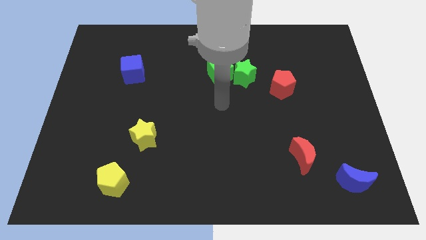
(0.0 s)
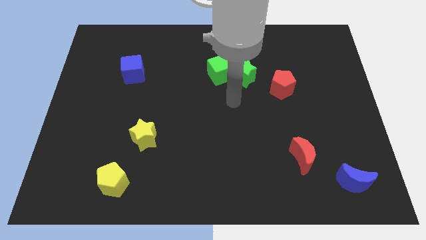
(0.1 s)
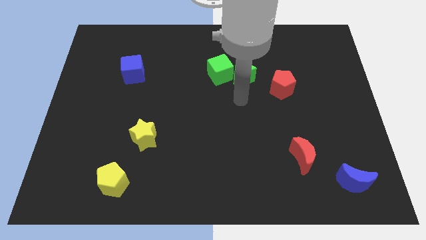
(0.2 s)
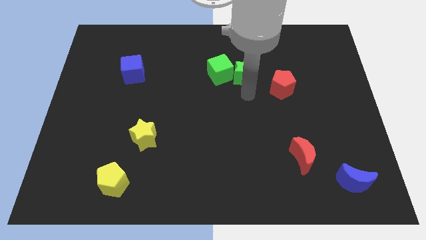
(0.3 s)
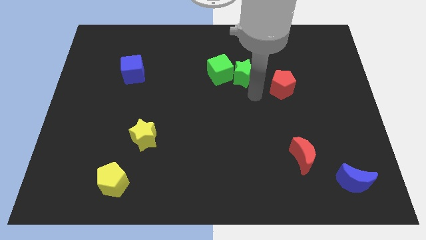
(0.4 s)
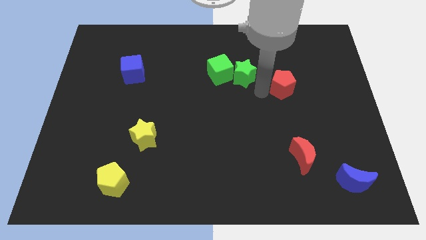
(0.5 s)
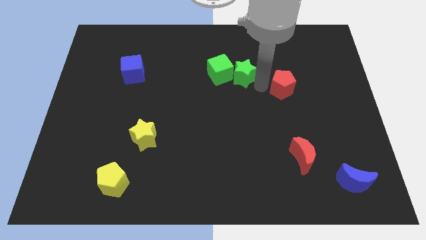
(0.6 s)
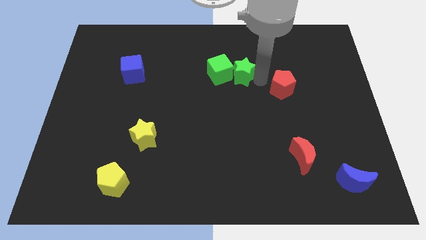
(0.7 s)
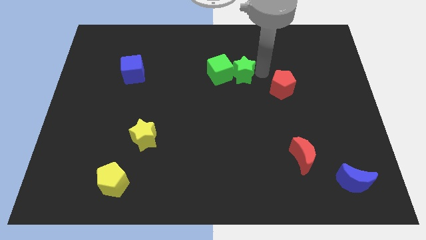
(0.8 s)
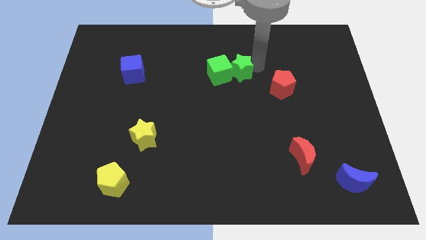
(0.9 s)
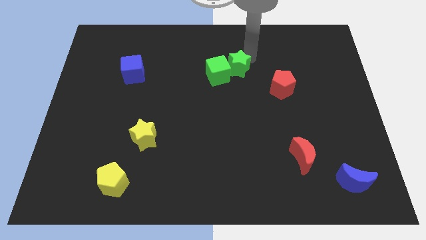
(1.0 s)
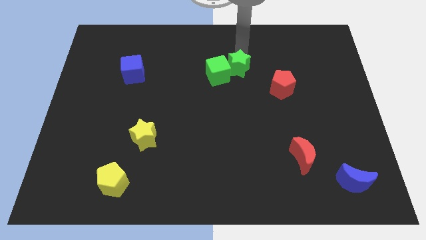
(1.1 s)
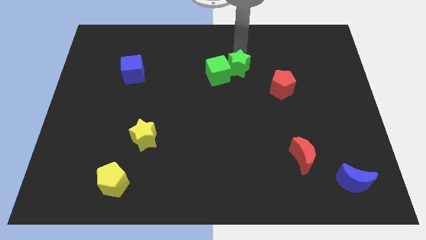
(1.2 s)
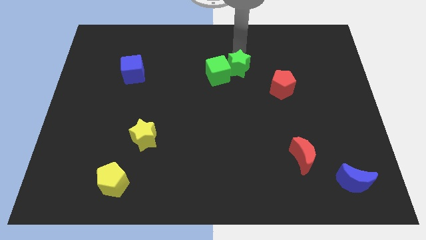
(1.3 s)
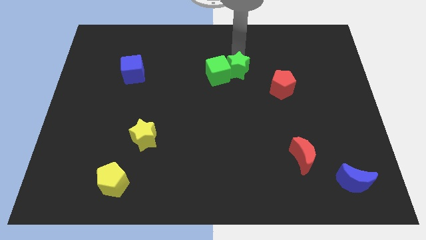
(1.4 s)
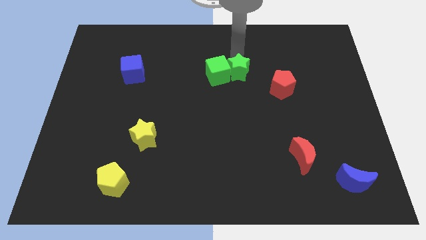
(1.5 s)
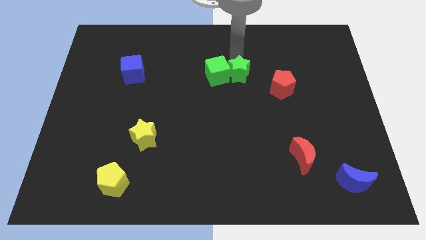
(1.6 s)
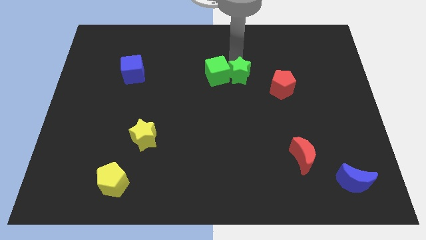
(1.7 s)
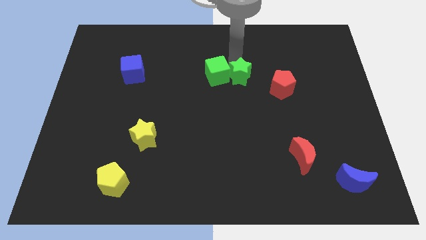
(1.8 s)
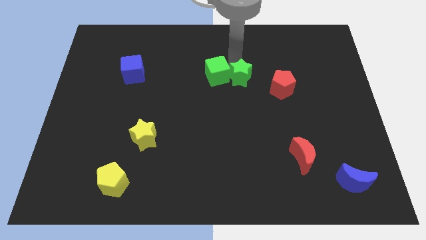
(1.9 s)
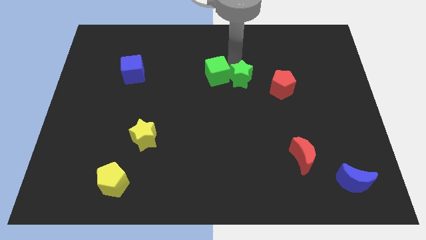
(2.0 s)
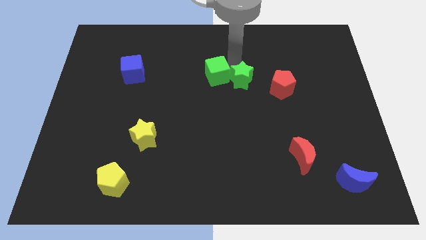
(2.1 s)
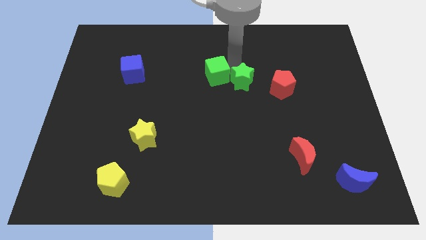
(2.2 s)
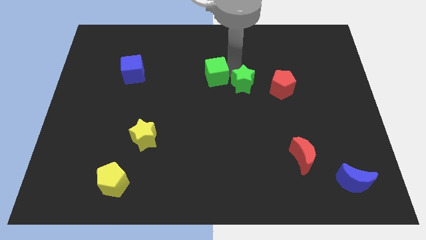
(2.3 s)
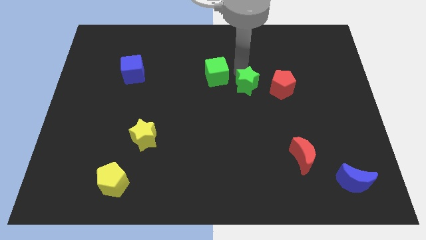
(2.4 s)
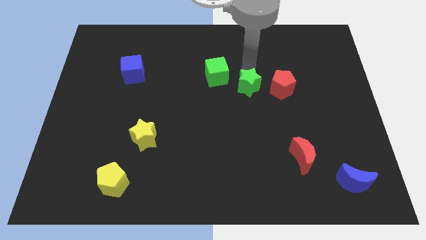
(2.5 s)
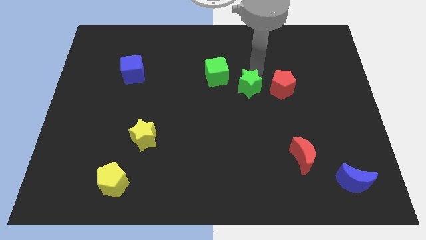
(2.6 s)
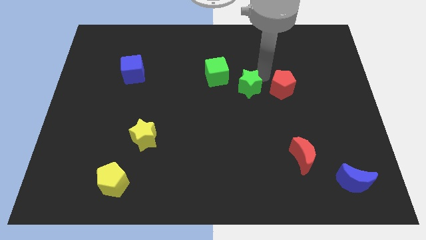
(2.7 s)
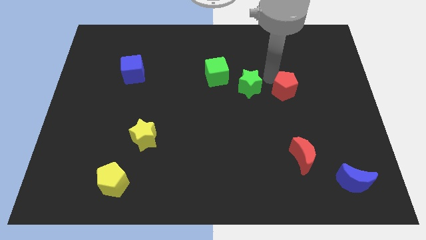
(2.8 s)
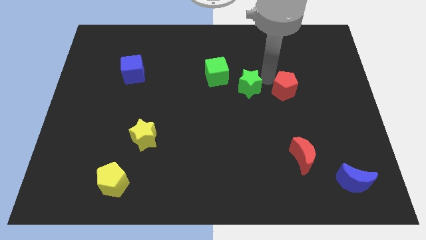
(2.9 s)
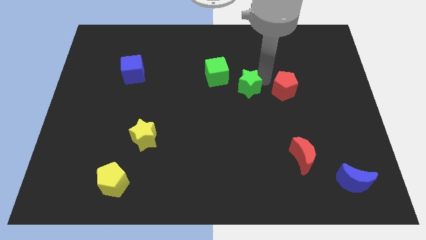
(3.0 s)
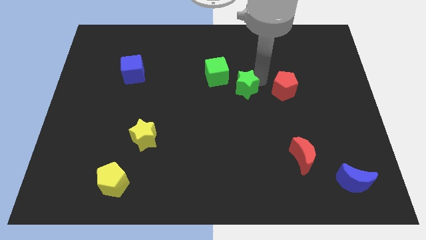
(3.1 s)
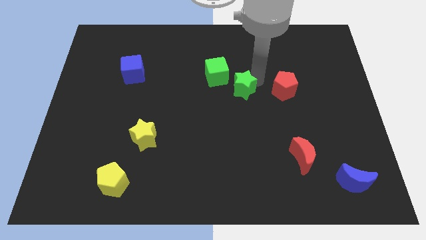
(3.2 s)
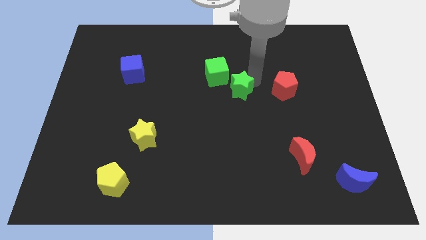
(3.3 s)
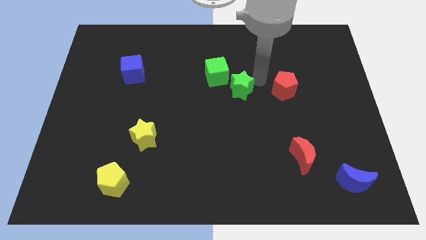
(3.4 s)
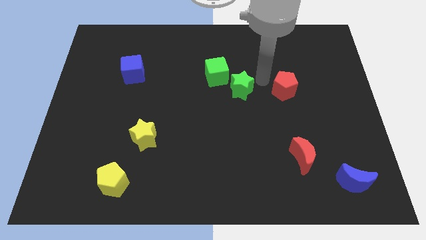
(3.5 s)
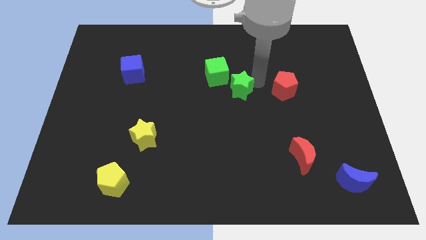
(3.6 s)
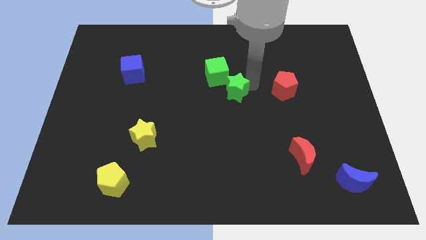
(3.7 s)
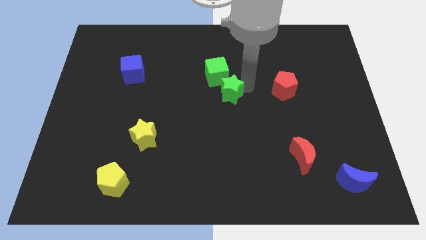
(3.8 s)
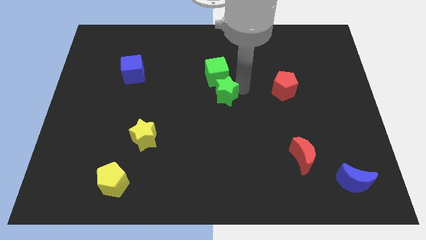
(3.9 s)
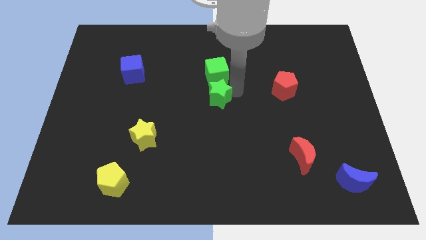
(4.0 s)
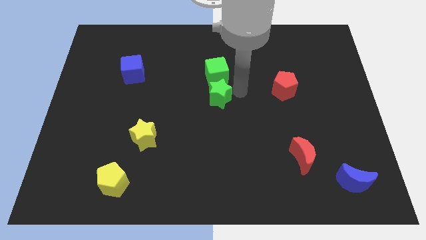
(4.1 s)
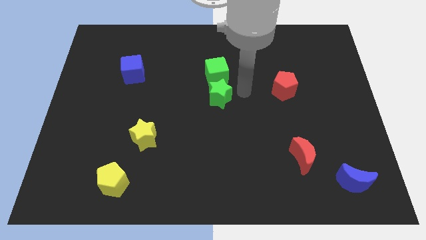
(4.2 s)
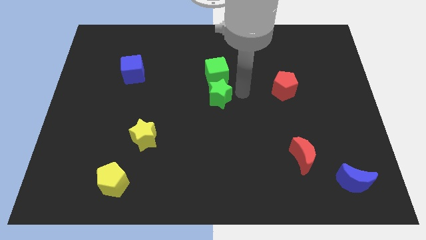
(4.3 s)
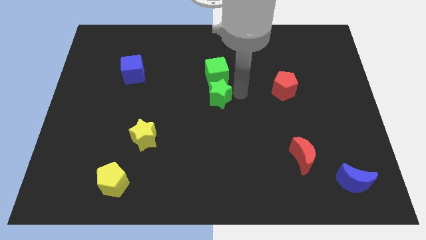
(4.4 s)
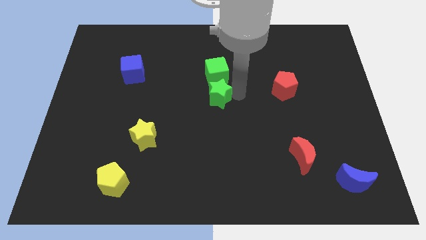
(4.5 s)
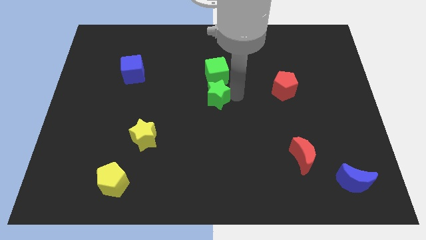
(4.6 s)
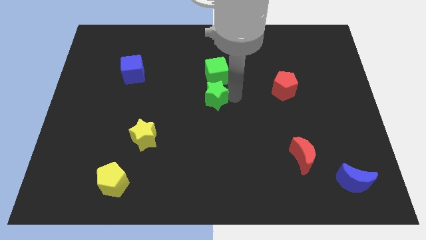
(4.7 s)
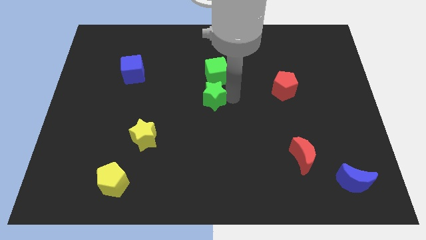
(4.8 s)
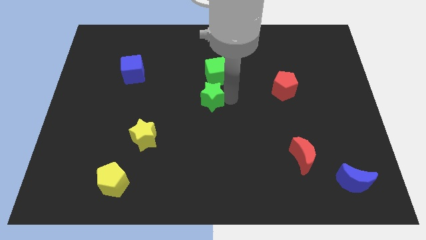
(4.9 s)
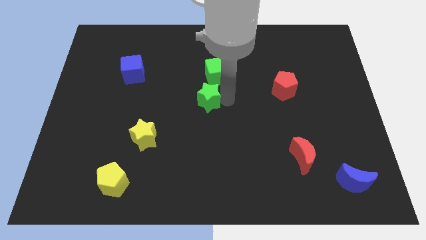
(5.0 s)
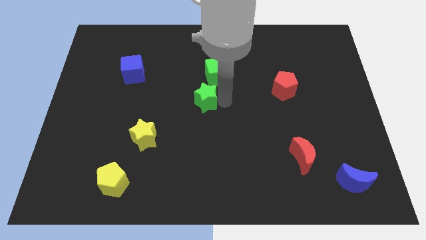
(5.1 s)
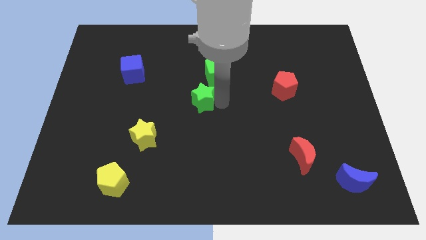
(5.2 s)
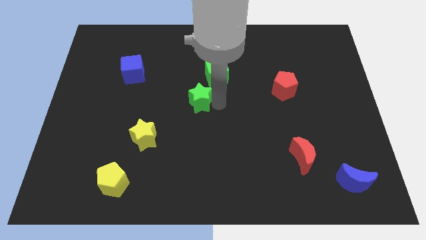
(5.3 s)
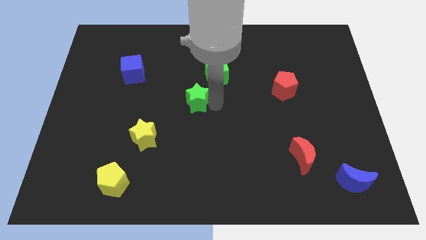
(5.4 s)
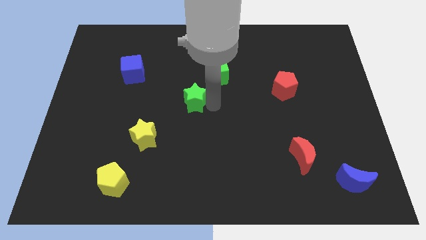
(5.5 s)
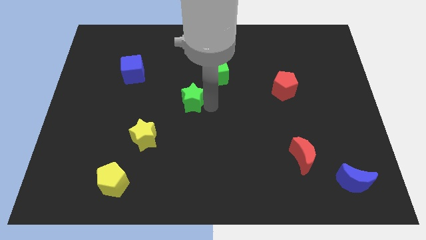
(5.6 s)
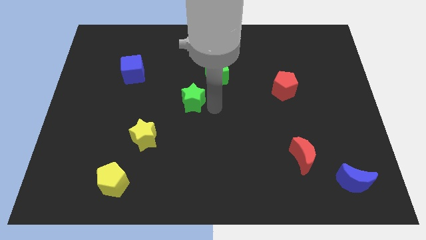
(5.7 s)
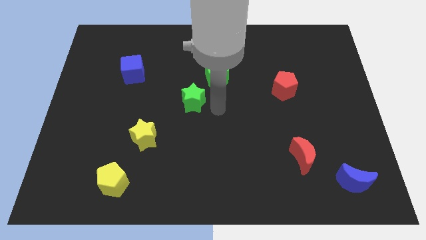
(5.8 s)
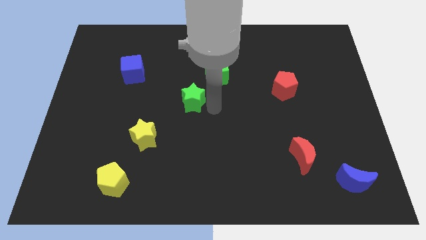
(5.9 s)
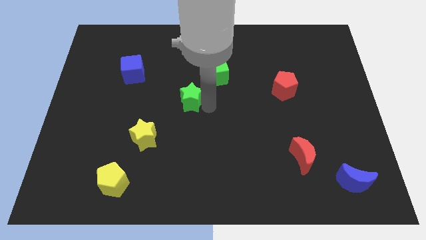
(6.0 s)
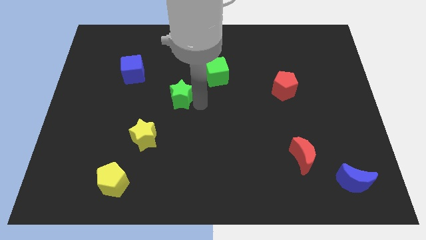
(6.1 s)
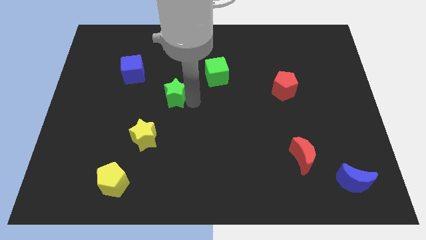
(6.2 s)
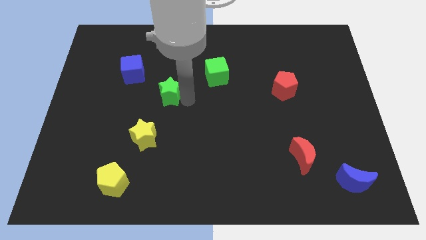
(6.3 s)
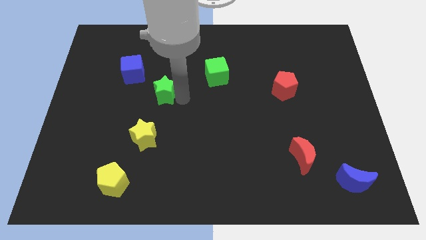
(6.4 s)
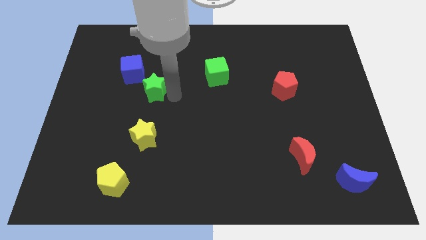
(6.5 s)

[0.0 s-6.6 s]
push the green star left

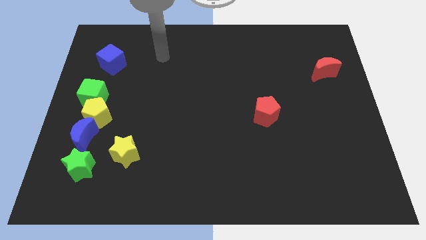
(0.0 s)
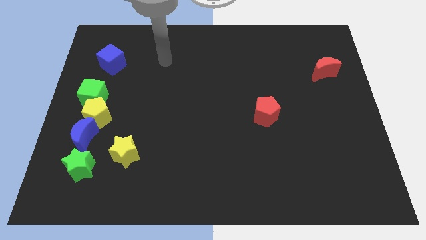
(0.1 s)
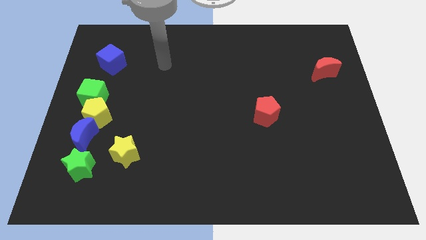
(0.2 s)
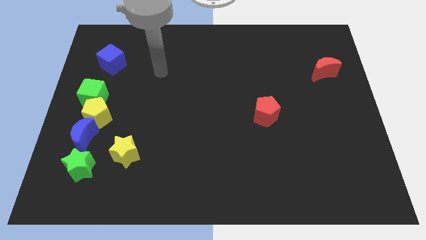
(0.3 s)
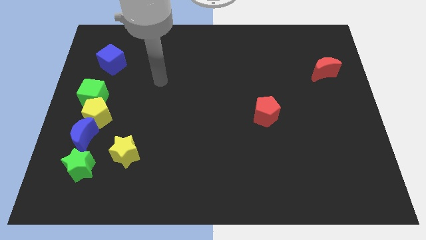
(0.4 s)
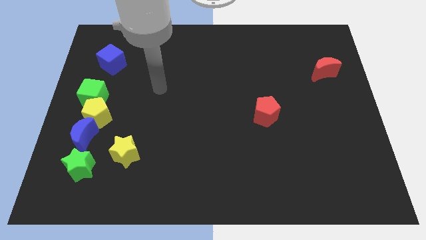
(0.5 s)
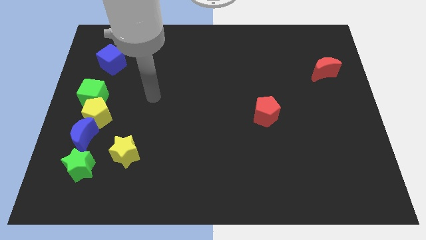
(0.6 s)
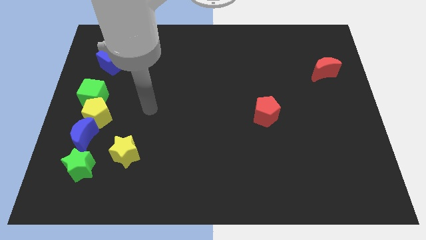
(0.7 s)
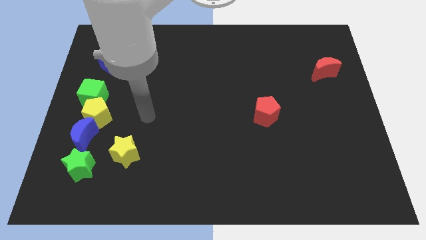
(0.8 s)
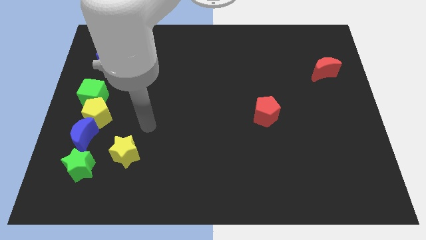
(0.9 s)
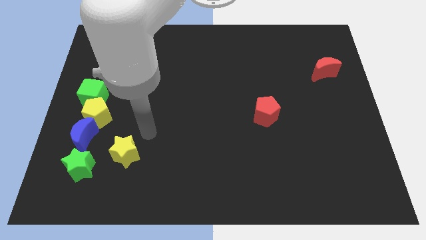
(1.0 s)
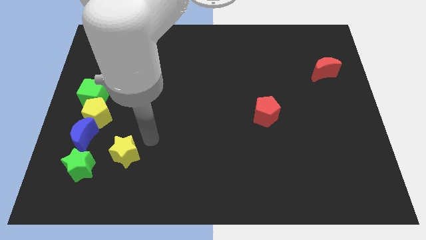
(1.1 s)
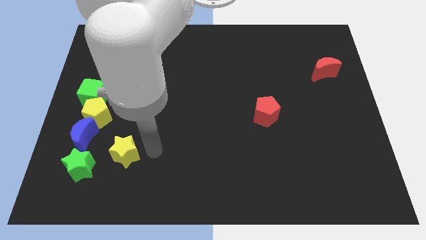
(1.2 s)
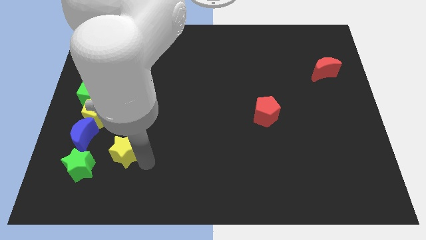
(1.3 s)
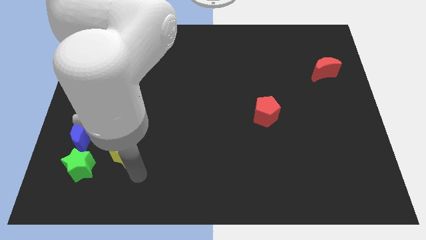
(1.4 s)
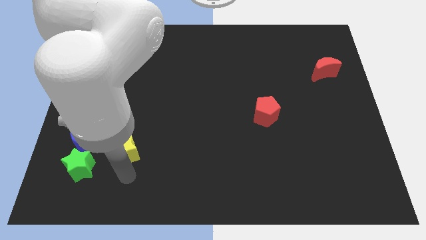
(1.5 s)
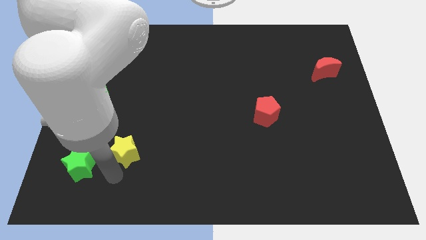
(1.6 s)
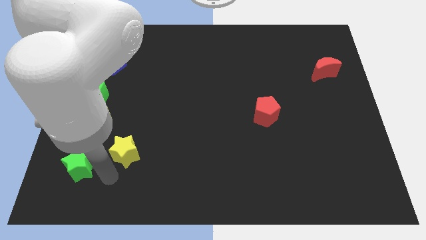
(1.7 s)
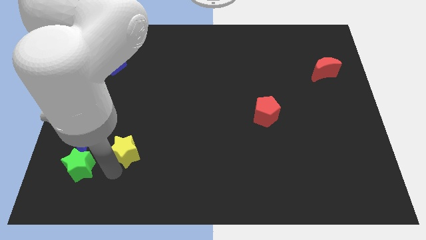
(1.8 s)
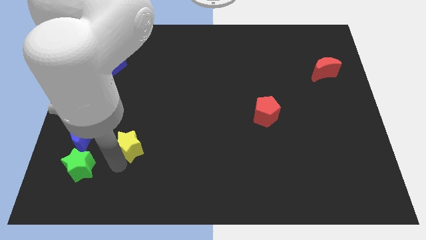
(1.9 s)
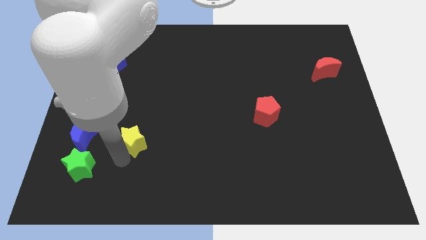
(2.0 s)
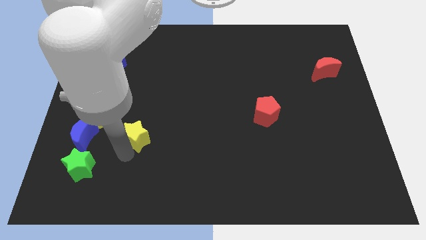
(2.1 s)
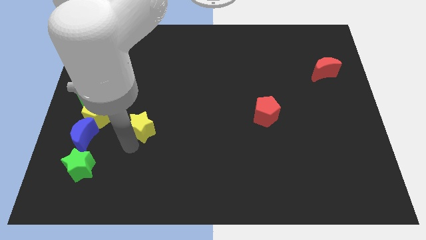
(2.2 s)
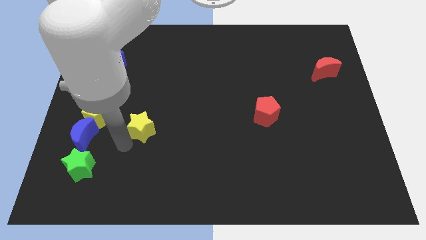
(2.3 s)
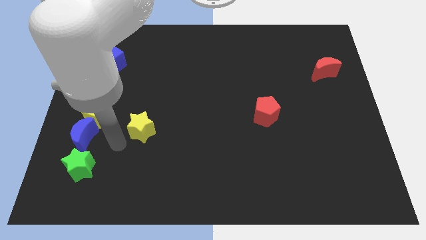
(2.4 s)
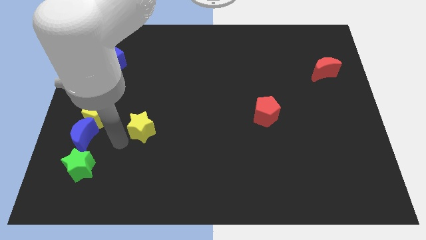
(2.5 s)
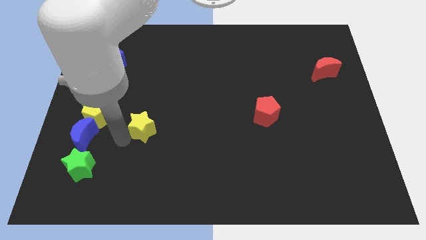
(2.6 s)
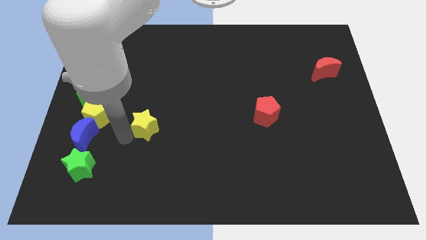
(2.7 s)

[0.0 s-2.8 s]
slightly move the yellow star diagonally up and to the right
